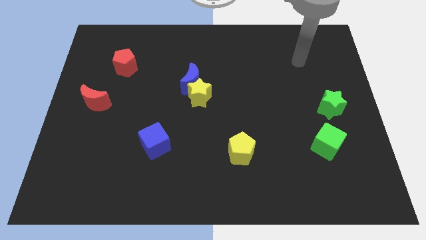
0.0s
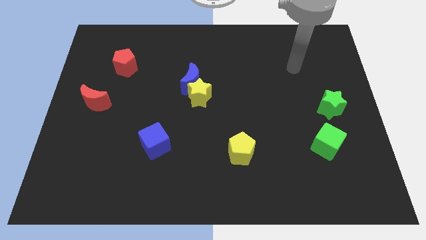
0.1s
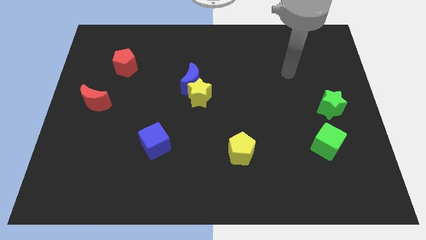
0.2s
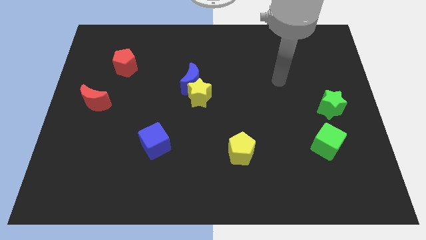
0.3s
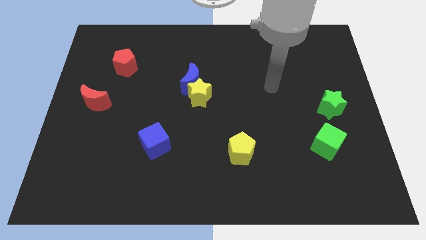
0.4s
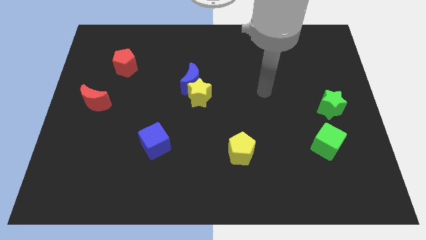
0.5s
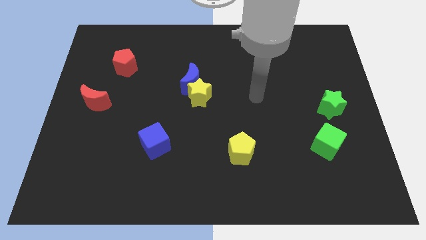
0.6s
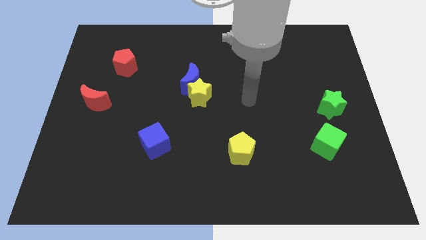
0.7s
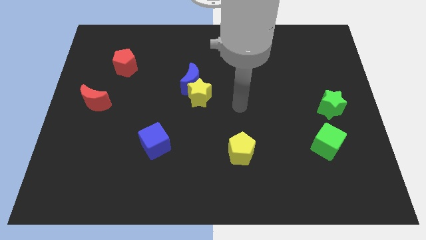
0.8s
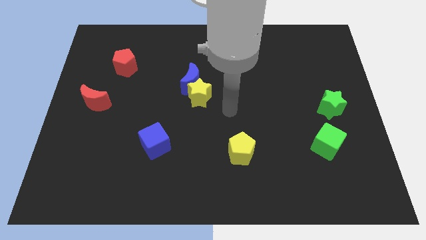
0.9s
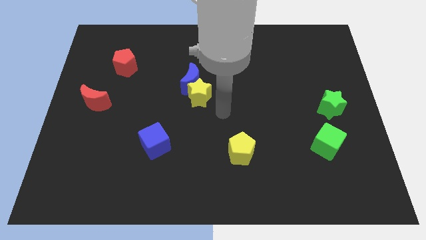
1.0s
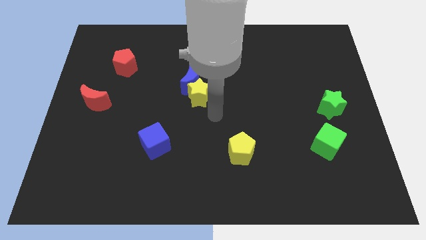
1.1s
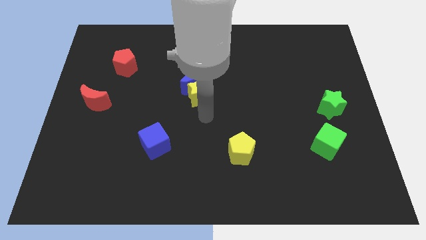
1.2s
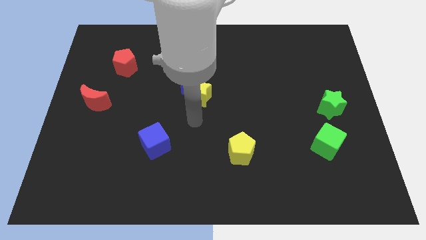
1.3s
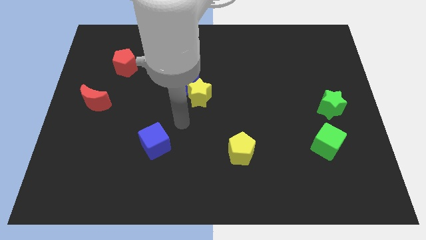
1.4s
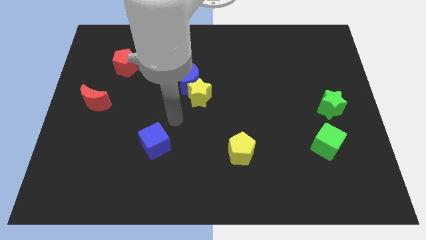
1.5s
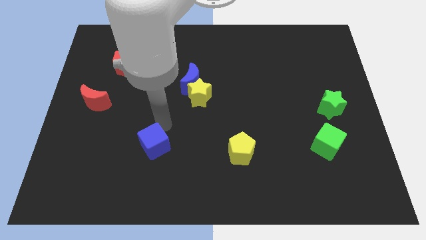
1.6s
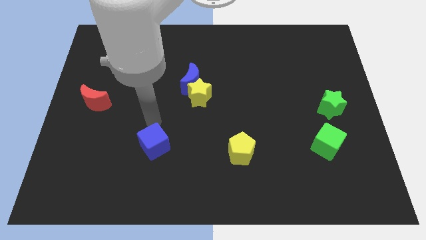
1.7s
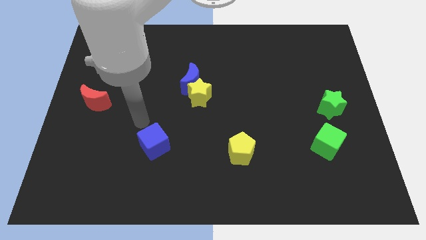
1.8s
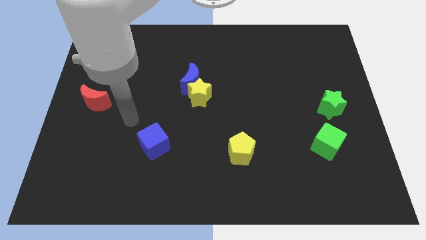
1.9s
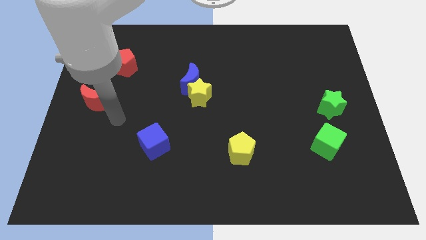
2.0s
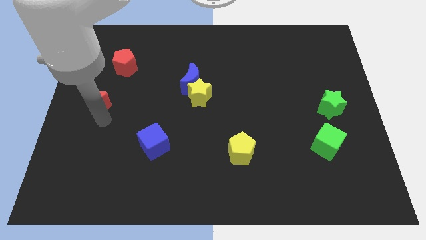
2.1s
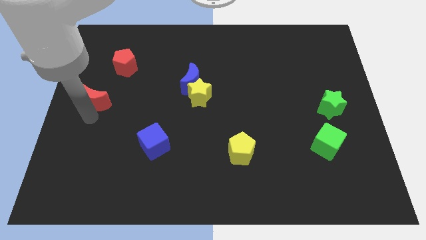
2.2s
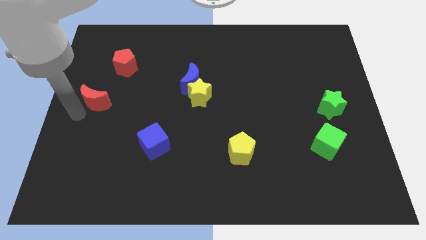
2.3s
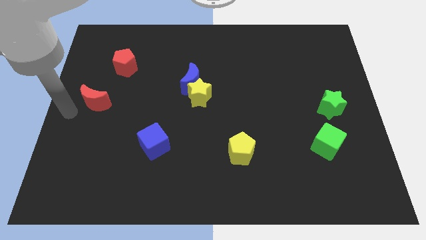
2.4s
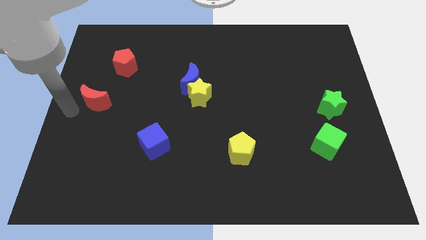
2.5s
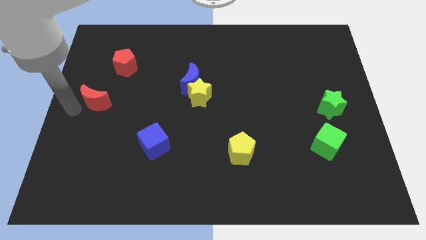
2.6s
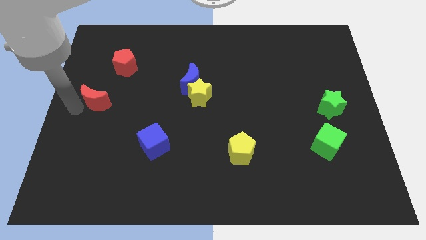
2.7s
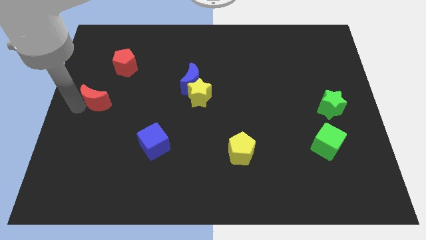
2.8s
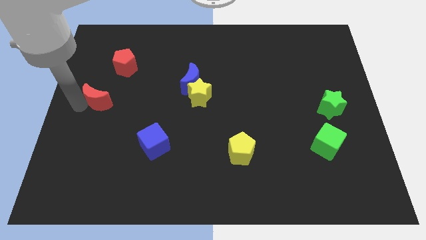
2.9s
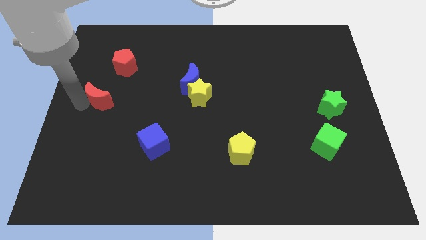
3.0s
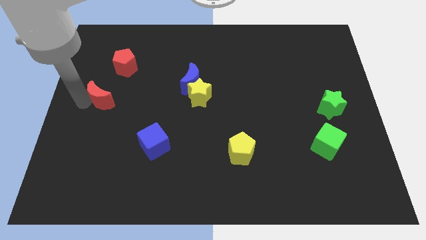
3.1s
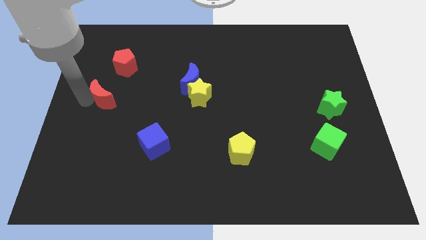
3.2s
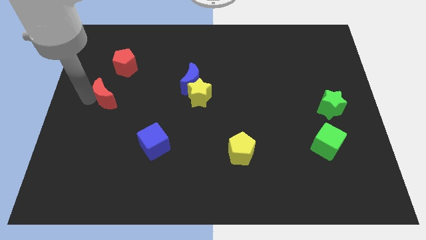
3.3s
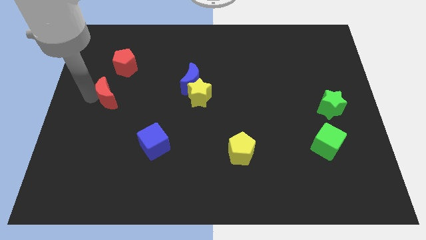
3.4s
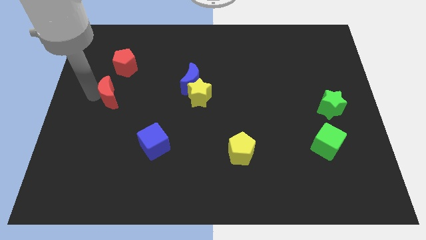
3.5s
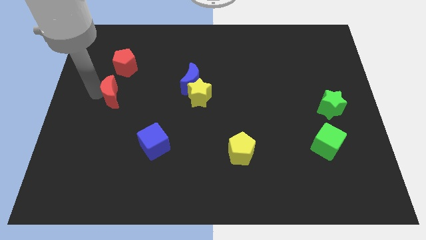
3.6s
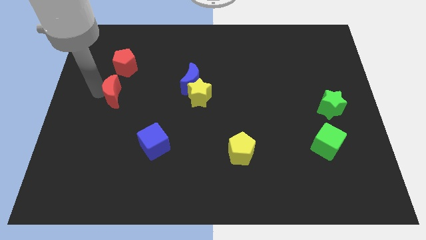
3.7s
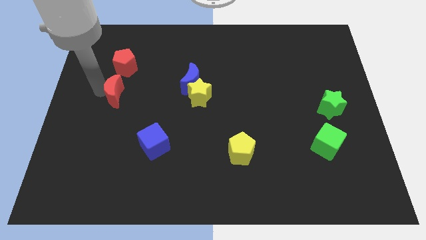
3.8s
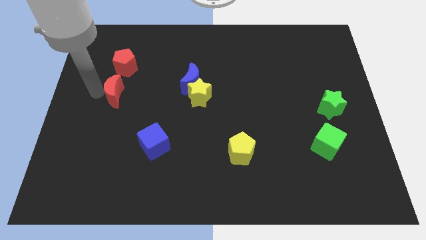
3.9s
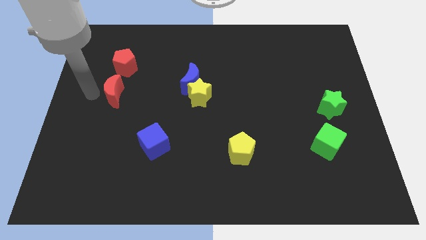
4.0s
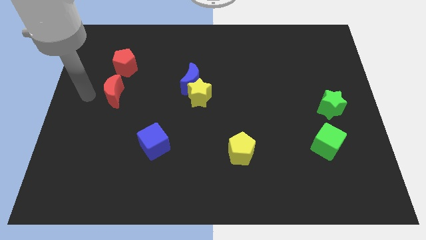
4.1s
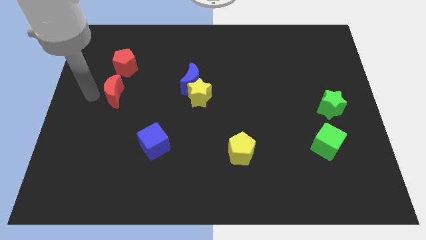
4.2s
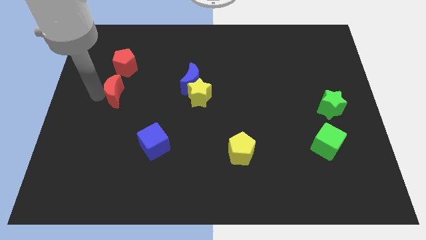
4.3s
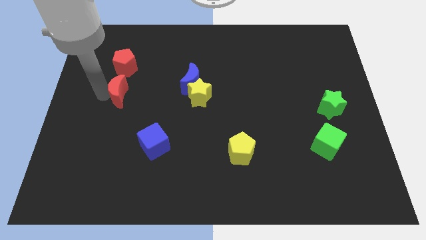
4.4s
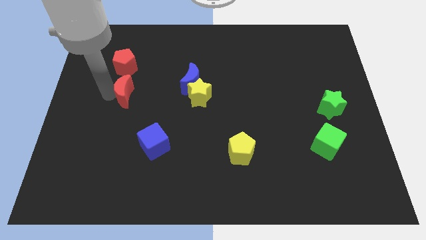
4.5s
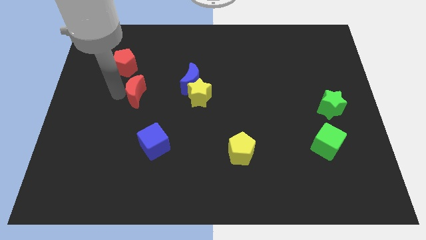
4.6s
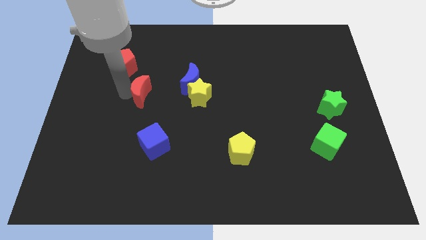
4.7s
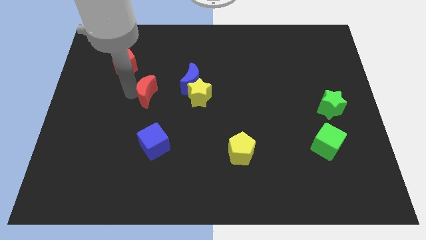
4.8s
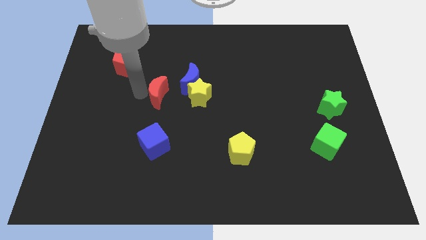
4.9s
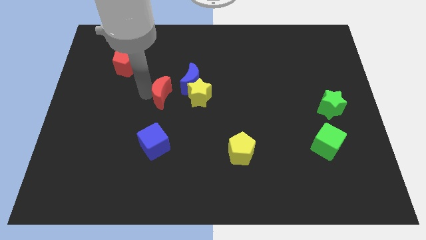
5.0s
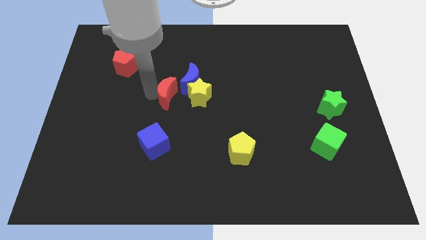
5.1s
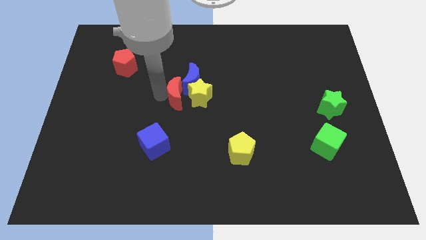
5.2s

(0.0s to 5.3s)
move the red moon towards the yellow star

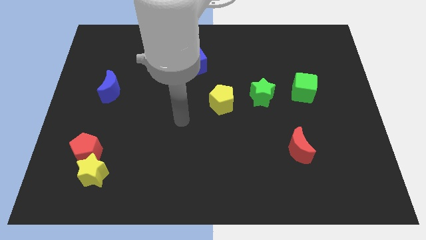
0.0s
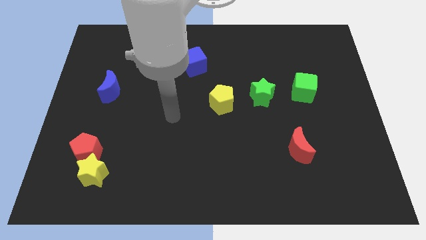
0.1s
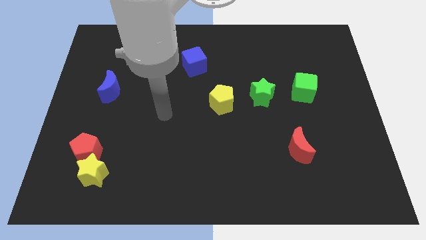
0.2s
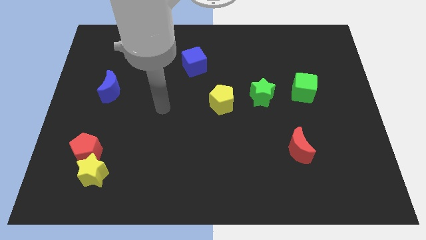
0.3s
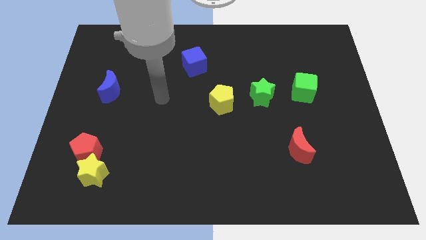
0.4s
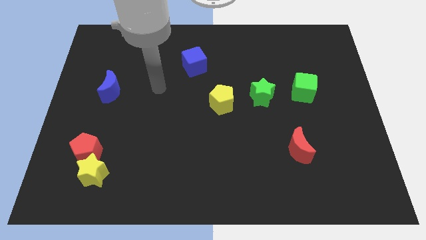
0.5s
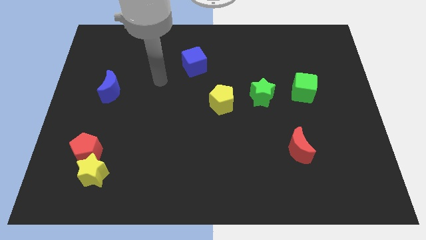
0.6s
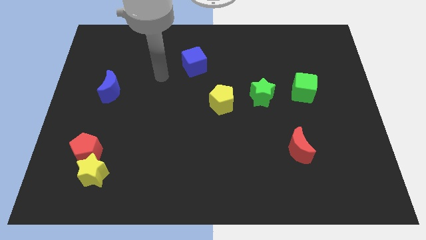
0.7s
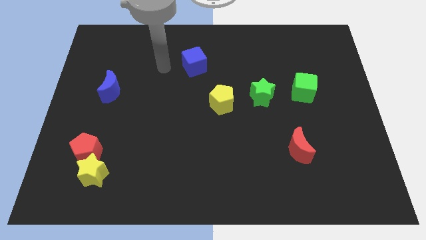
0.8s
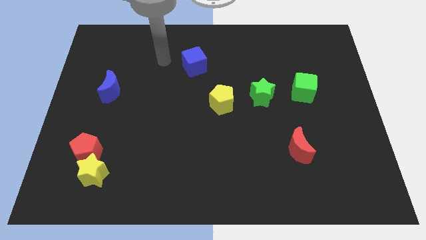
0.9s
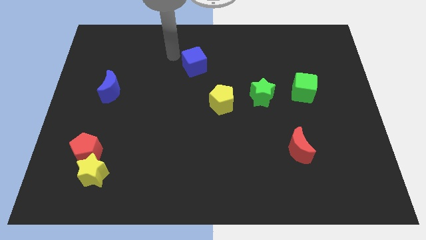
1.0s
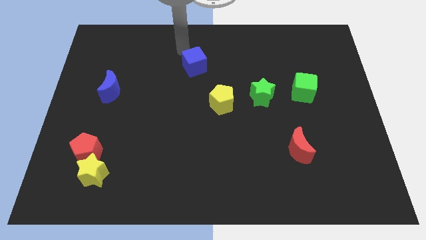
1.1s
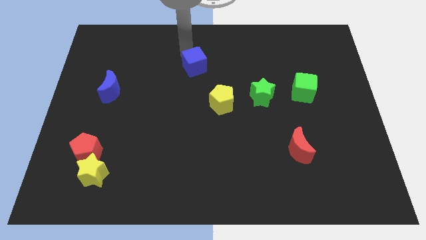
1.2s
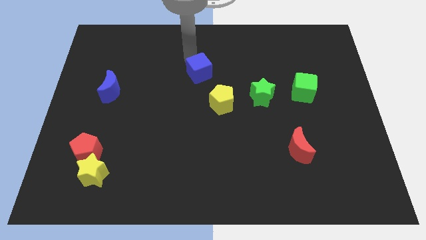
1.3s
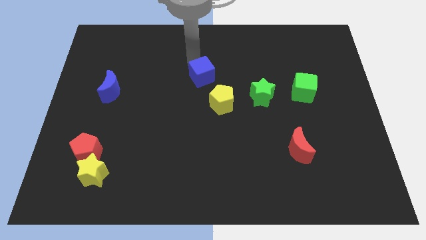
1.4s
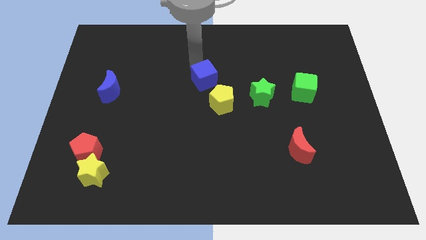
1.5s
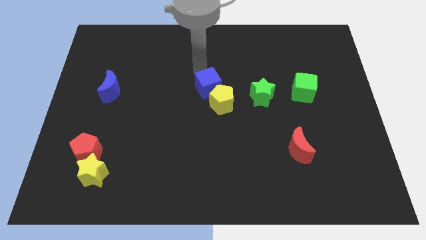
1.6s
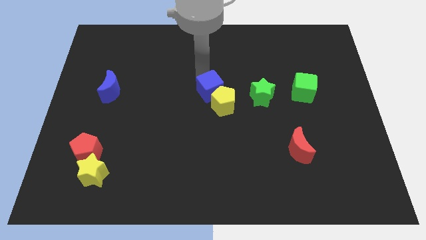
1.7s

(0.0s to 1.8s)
put the blue cube next to the yellow pentagon
